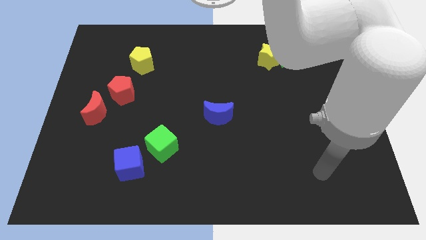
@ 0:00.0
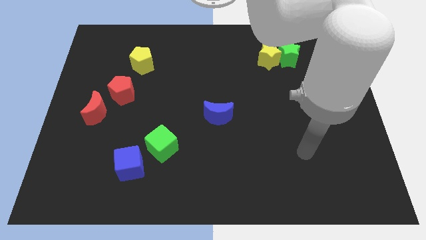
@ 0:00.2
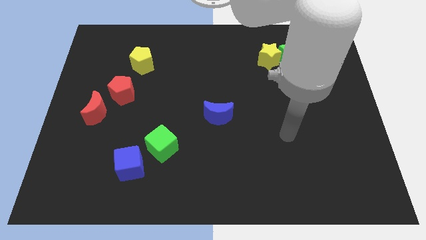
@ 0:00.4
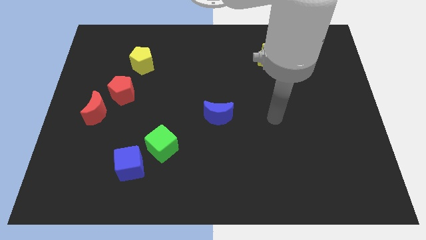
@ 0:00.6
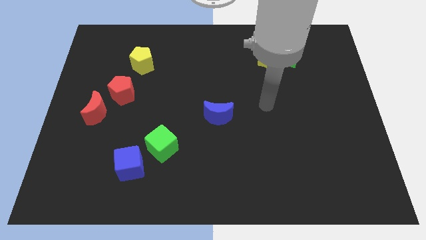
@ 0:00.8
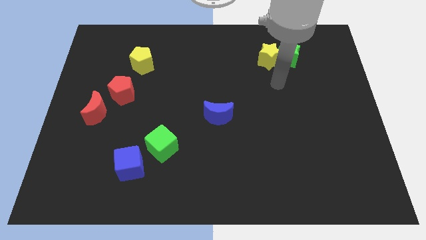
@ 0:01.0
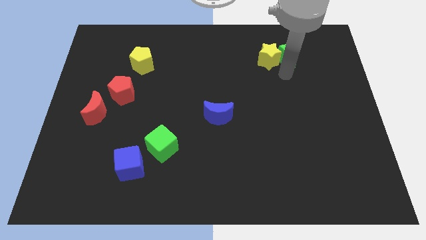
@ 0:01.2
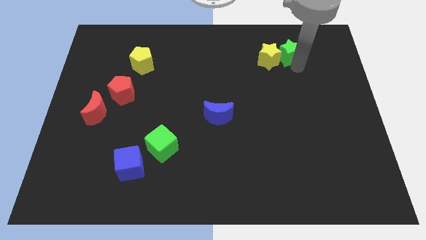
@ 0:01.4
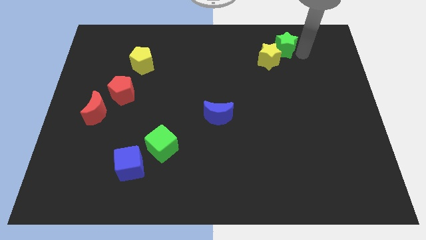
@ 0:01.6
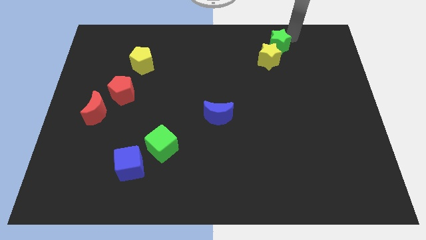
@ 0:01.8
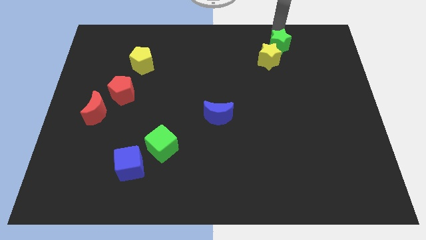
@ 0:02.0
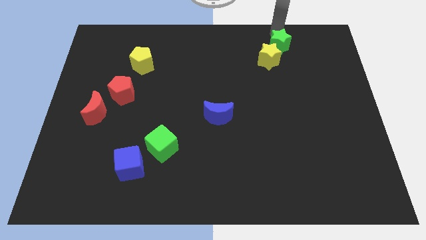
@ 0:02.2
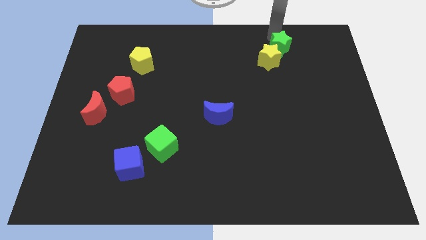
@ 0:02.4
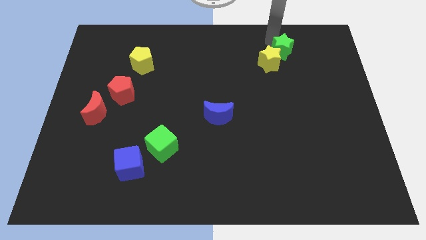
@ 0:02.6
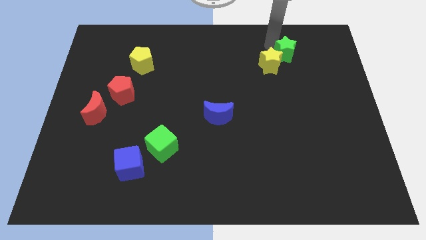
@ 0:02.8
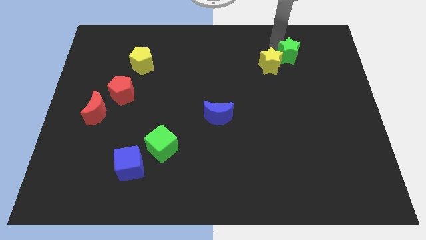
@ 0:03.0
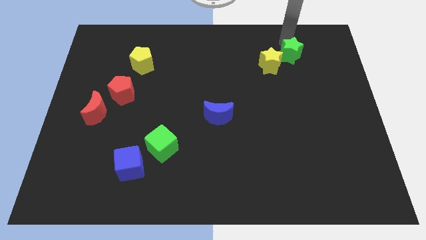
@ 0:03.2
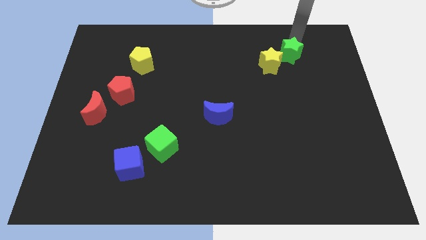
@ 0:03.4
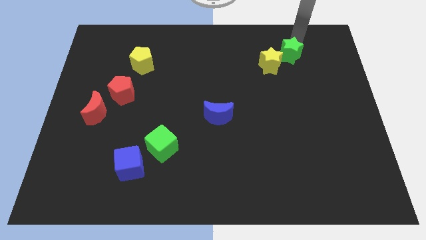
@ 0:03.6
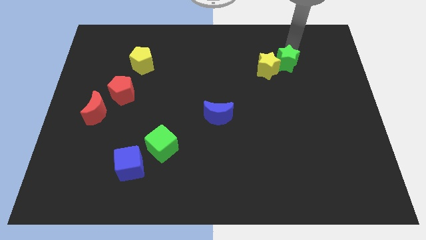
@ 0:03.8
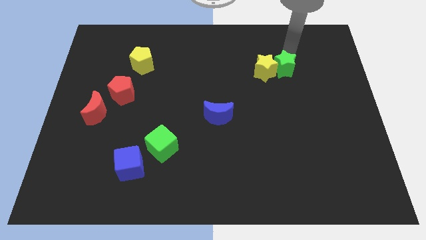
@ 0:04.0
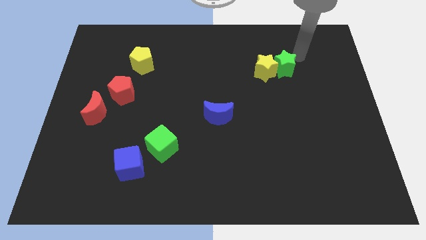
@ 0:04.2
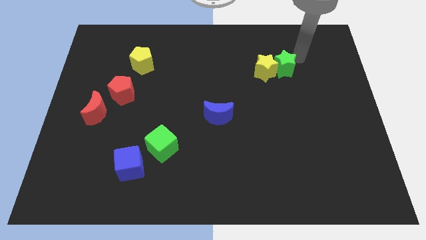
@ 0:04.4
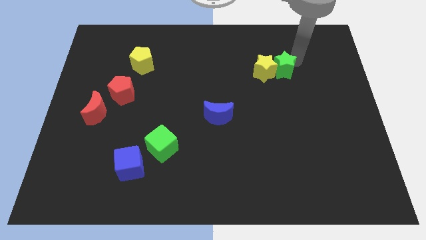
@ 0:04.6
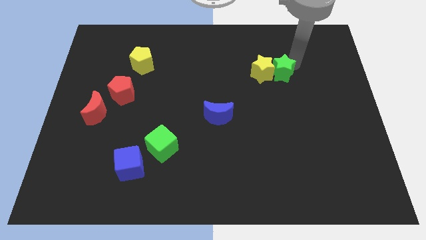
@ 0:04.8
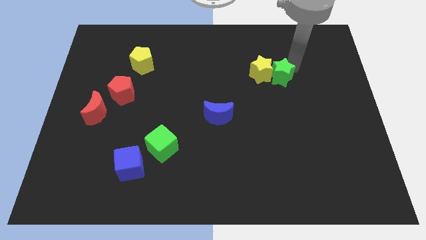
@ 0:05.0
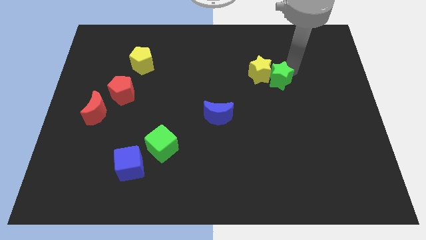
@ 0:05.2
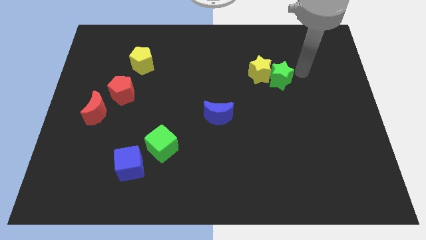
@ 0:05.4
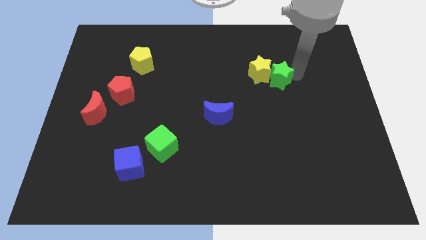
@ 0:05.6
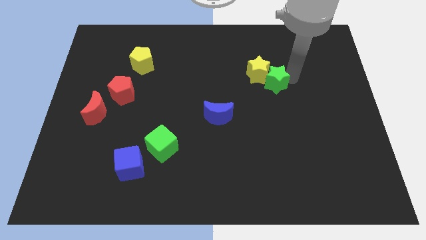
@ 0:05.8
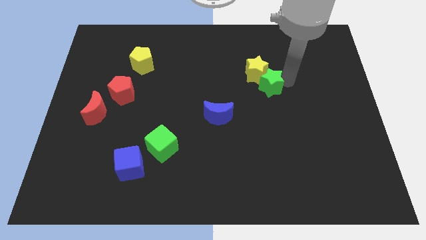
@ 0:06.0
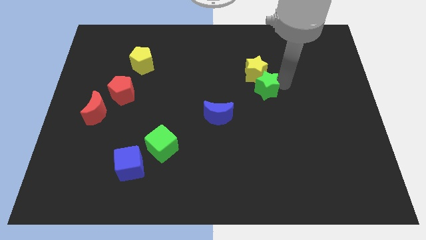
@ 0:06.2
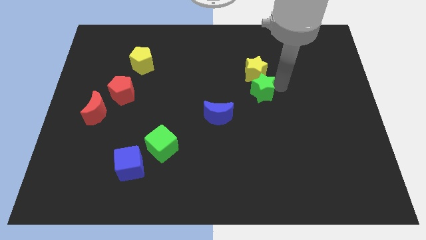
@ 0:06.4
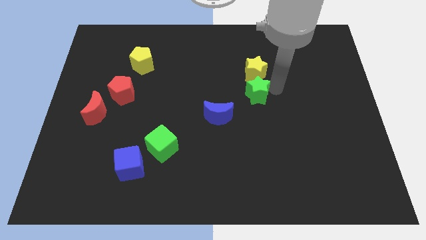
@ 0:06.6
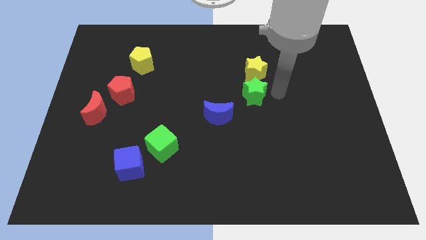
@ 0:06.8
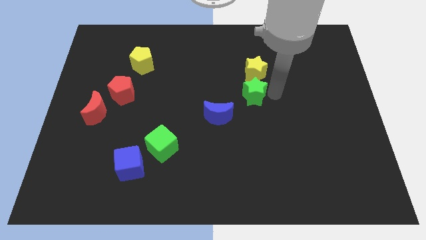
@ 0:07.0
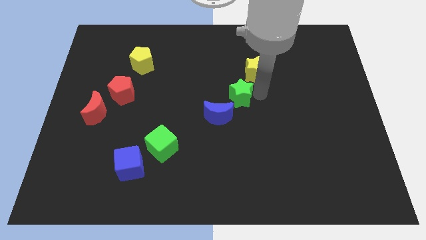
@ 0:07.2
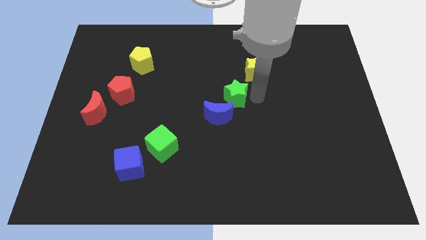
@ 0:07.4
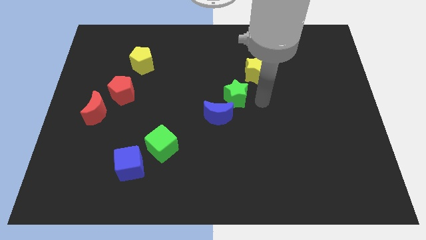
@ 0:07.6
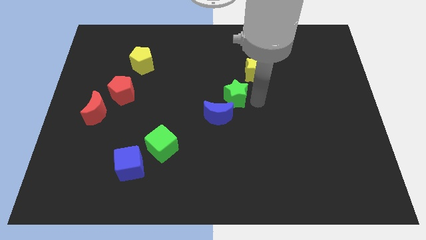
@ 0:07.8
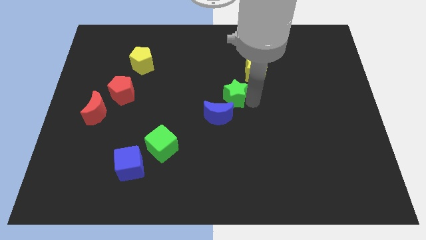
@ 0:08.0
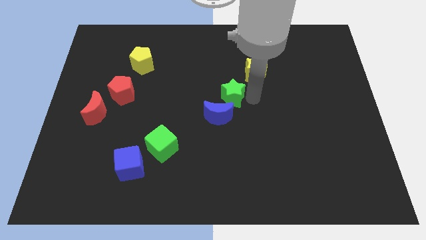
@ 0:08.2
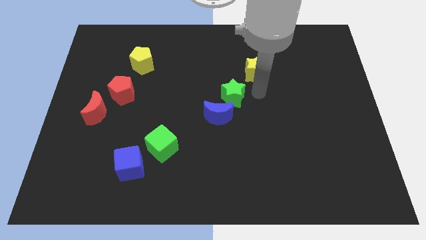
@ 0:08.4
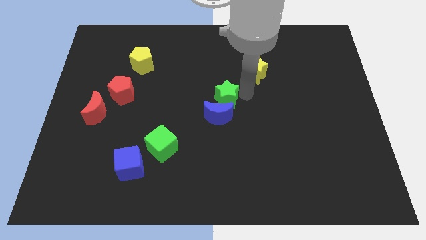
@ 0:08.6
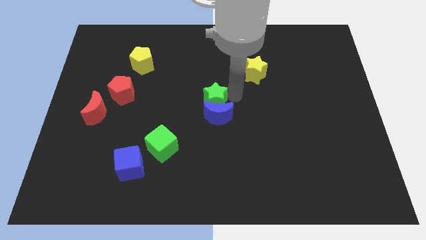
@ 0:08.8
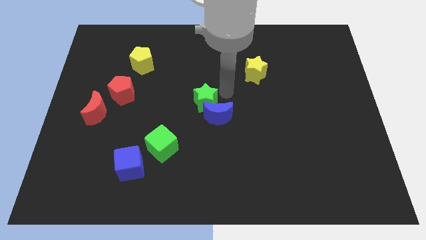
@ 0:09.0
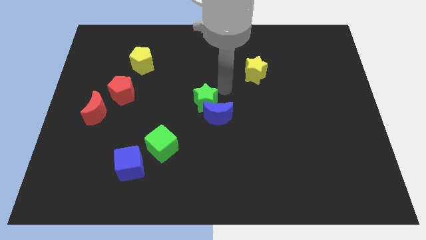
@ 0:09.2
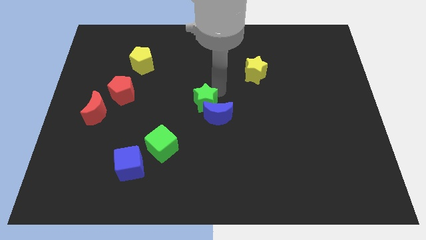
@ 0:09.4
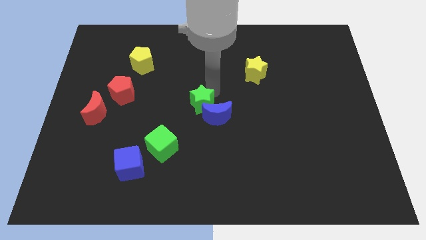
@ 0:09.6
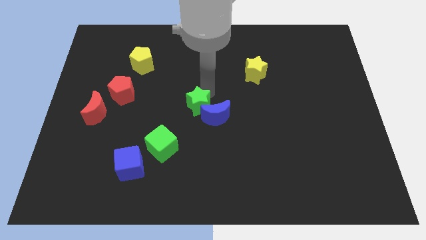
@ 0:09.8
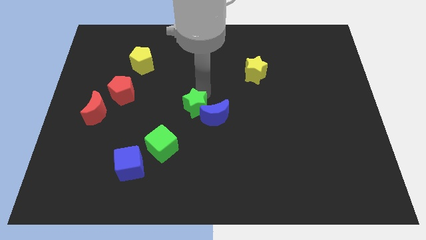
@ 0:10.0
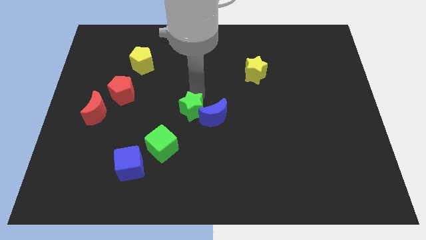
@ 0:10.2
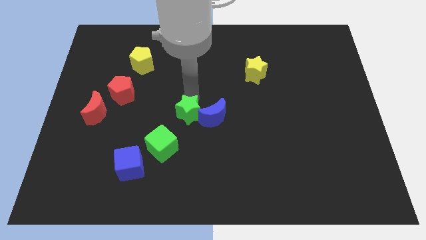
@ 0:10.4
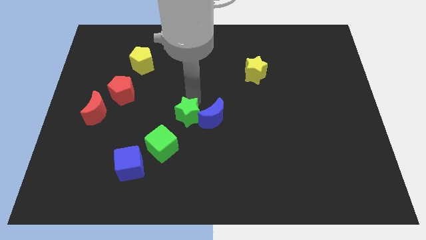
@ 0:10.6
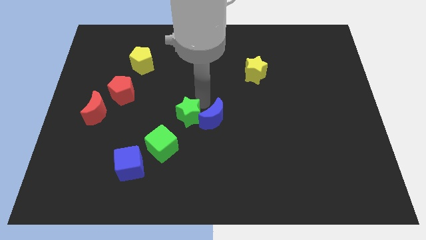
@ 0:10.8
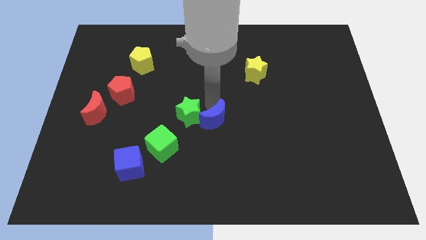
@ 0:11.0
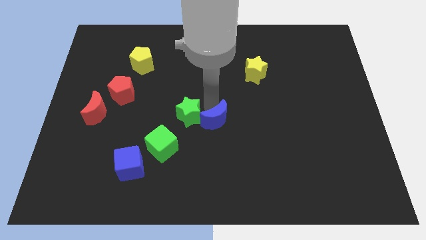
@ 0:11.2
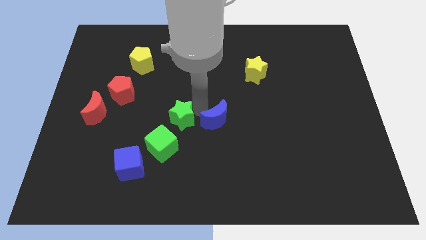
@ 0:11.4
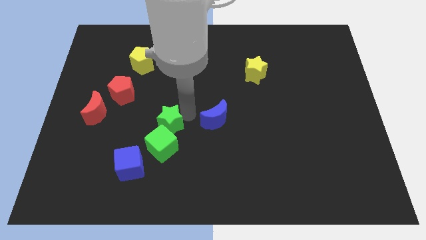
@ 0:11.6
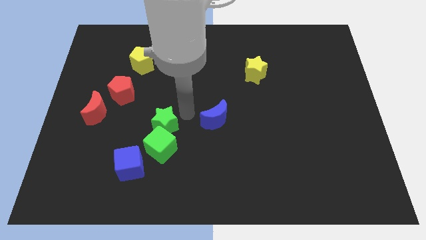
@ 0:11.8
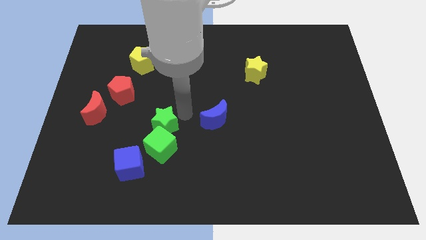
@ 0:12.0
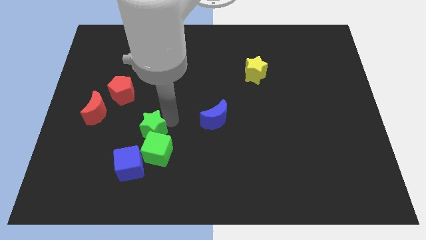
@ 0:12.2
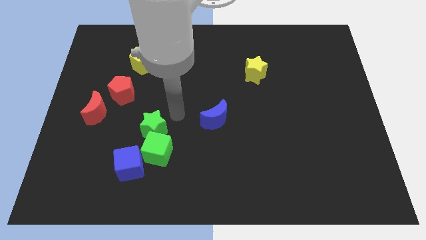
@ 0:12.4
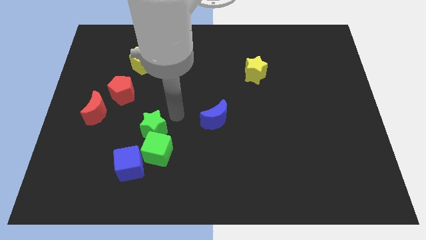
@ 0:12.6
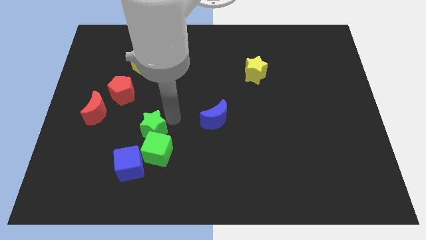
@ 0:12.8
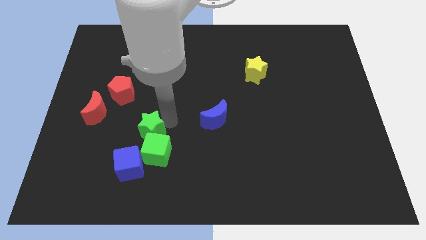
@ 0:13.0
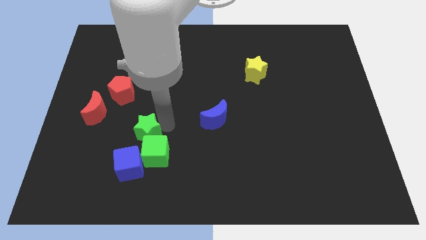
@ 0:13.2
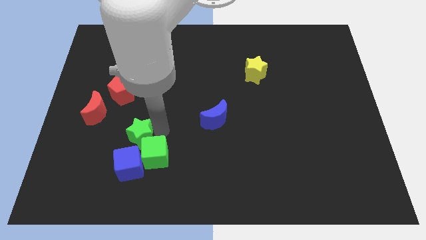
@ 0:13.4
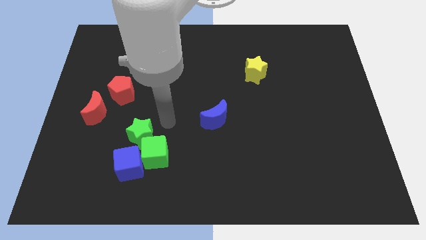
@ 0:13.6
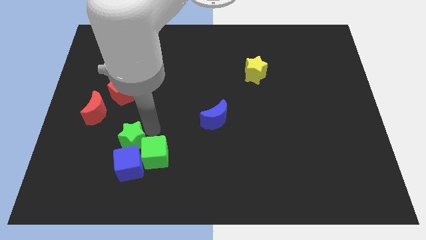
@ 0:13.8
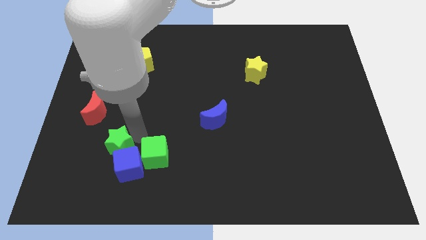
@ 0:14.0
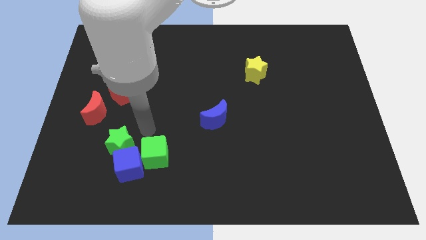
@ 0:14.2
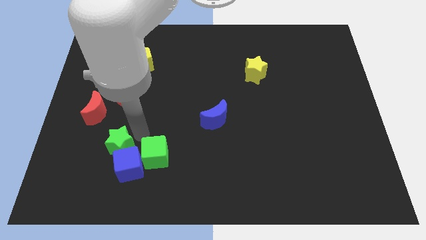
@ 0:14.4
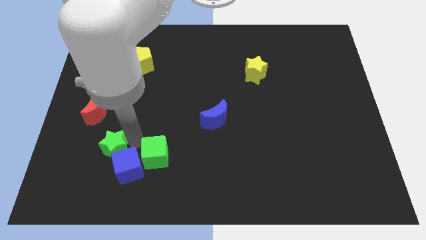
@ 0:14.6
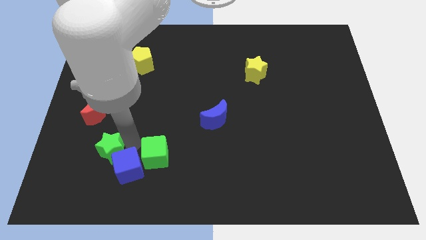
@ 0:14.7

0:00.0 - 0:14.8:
push the green star to the left of the blue cube

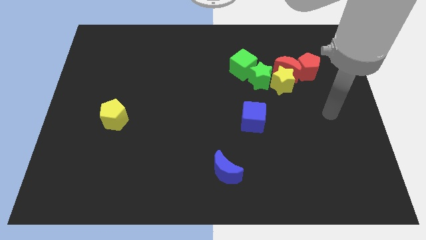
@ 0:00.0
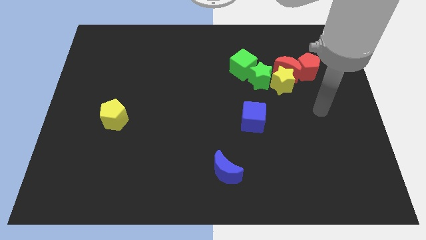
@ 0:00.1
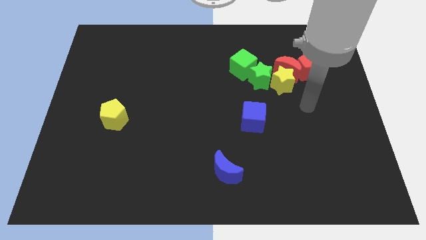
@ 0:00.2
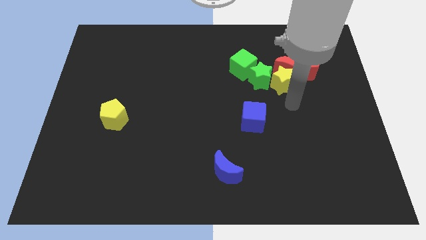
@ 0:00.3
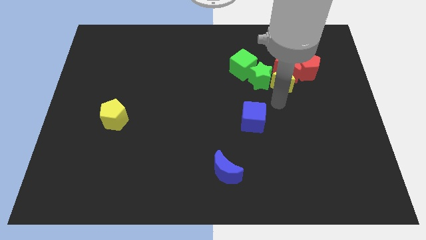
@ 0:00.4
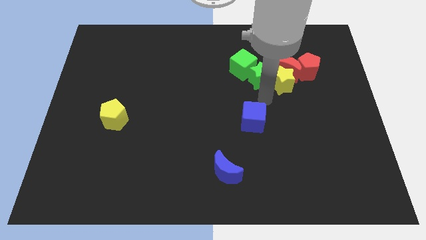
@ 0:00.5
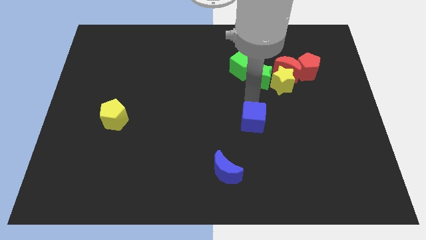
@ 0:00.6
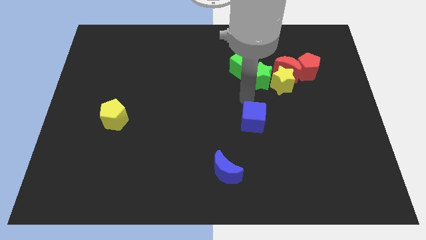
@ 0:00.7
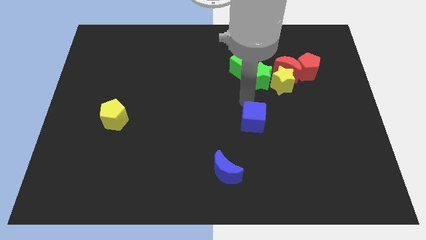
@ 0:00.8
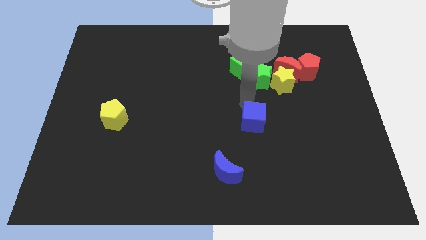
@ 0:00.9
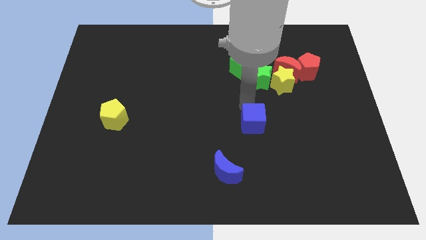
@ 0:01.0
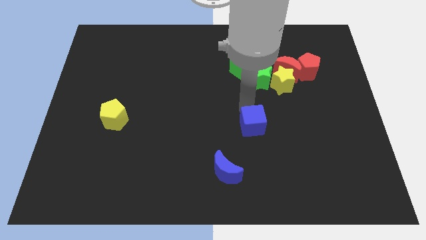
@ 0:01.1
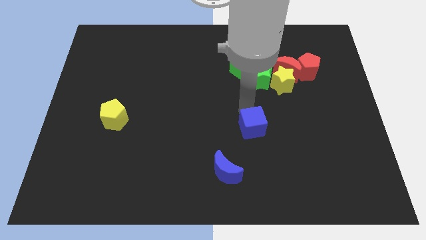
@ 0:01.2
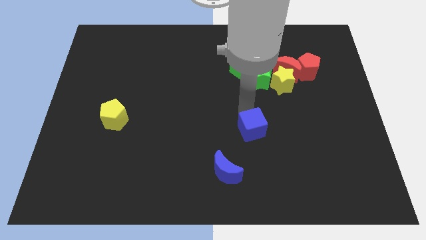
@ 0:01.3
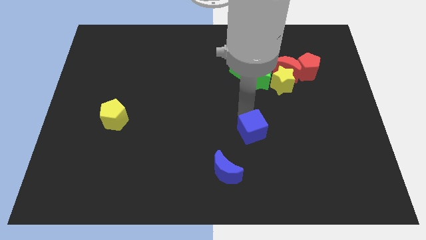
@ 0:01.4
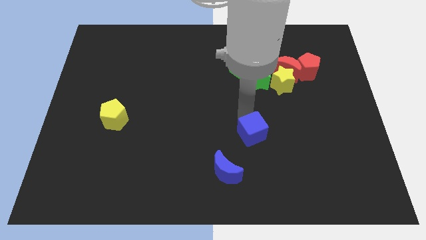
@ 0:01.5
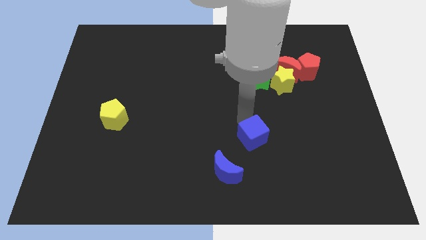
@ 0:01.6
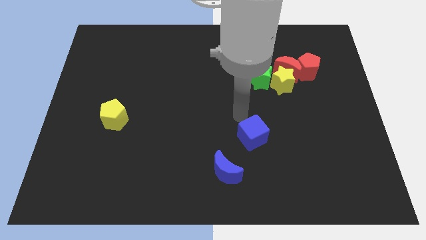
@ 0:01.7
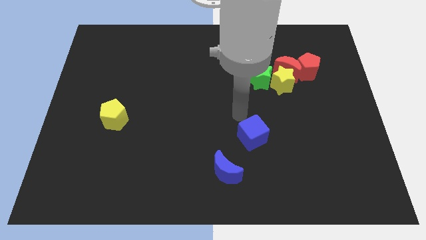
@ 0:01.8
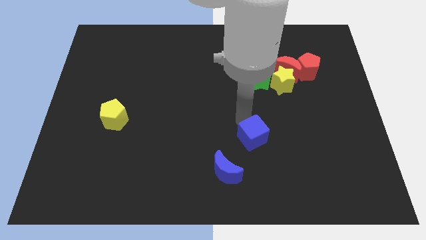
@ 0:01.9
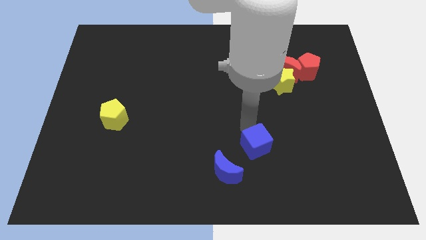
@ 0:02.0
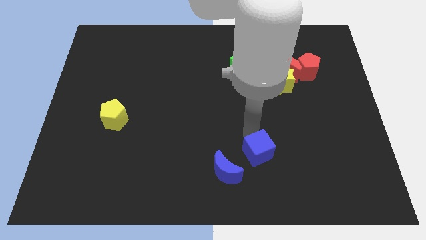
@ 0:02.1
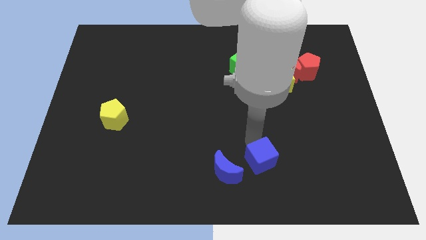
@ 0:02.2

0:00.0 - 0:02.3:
slide the blue cube just right of the blue moon
